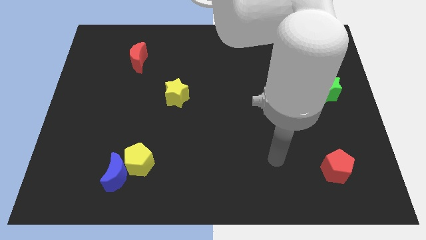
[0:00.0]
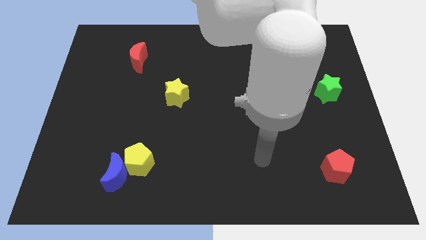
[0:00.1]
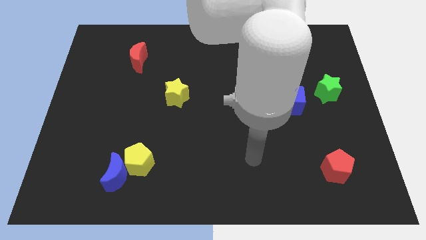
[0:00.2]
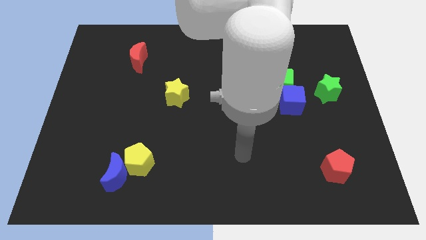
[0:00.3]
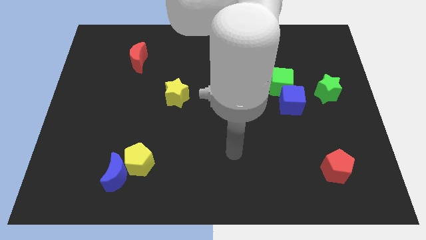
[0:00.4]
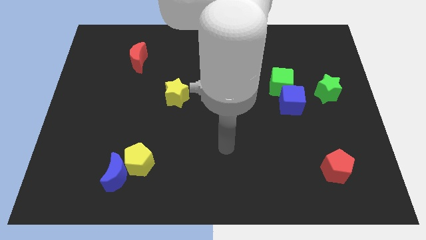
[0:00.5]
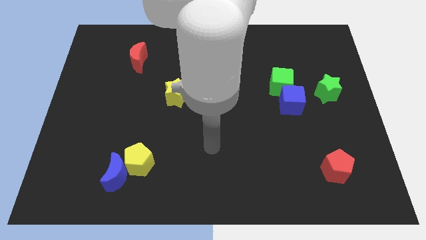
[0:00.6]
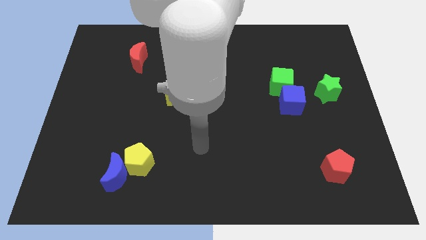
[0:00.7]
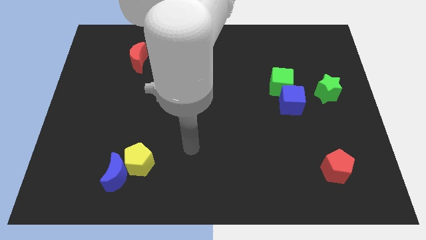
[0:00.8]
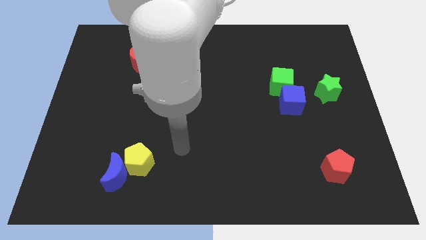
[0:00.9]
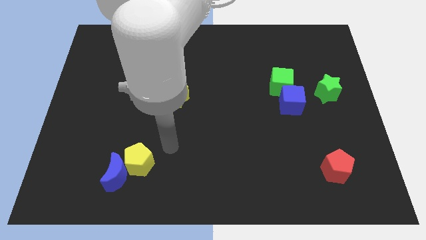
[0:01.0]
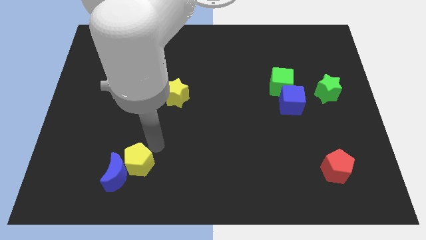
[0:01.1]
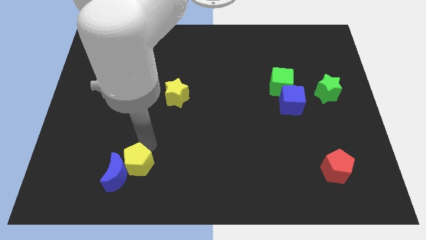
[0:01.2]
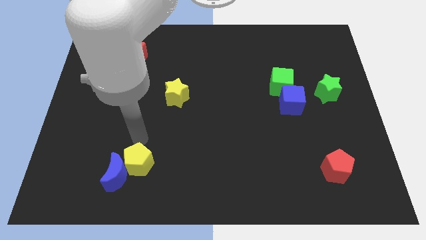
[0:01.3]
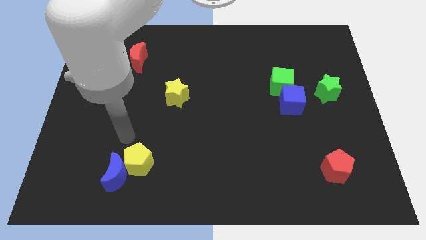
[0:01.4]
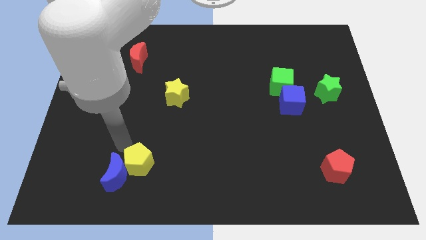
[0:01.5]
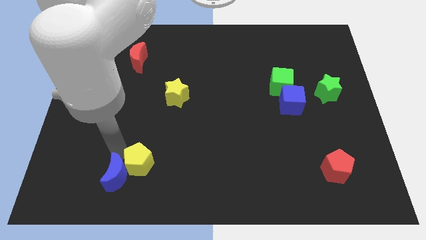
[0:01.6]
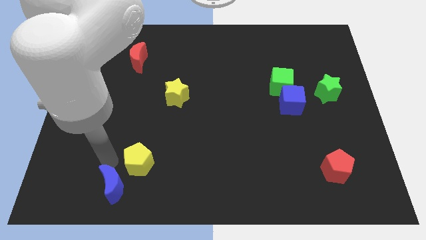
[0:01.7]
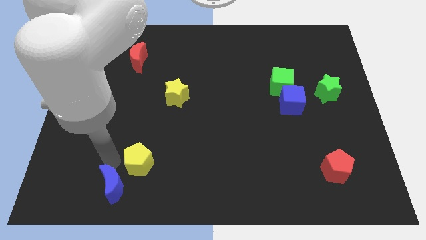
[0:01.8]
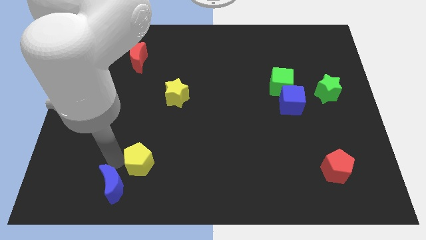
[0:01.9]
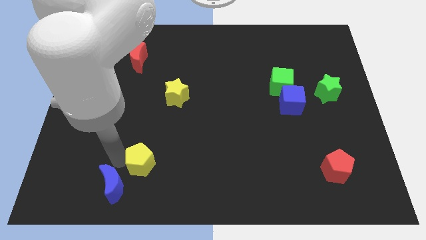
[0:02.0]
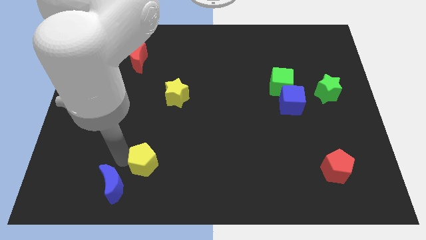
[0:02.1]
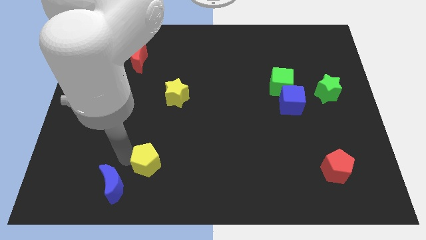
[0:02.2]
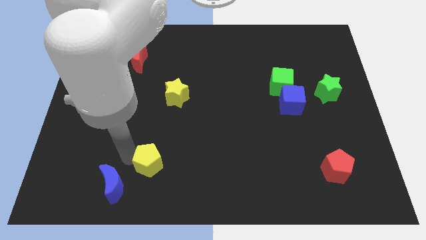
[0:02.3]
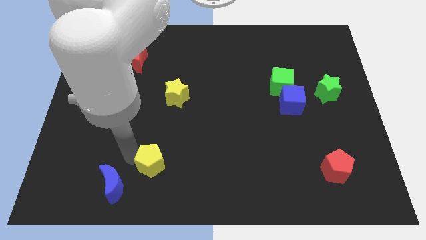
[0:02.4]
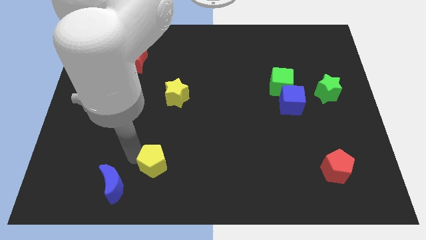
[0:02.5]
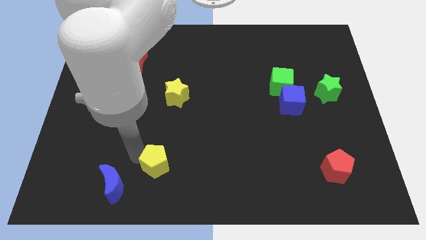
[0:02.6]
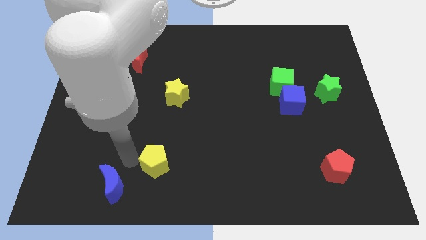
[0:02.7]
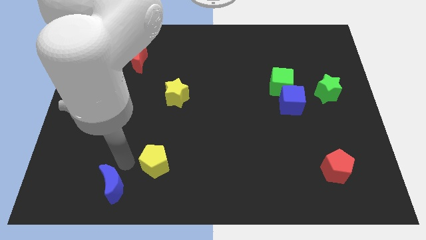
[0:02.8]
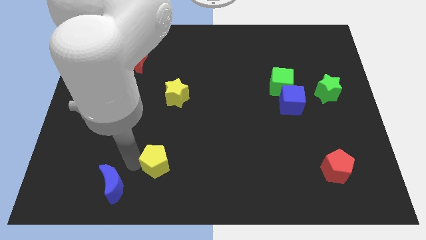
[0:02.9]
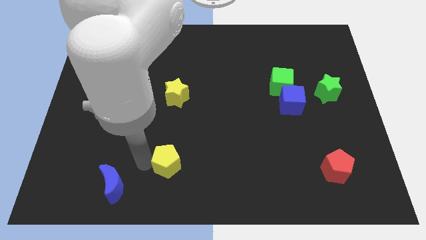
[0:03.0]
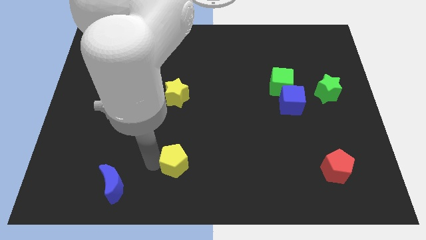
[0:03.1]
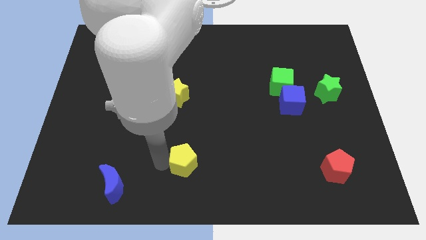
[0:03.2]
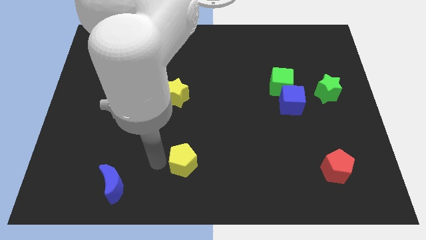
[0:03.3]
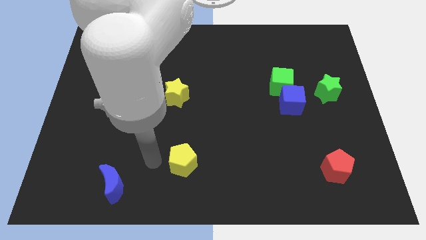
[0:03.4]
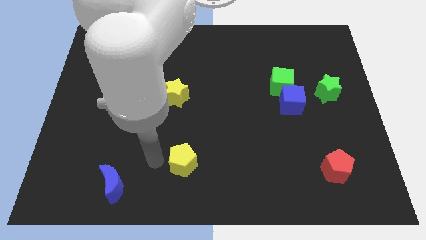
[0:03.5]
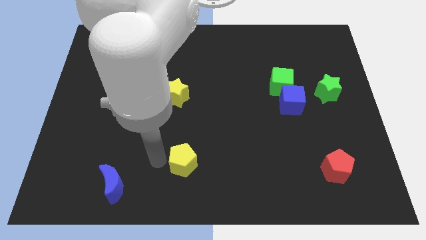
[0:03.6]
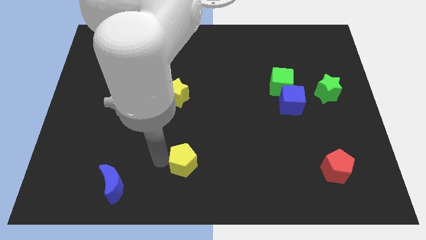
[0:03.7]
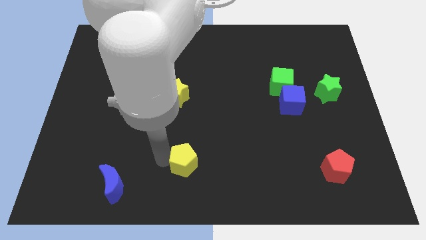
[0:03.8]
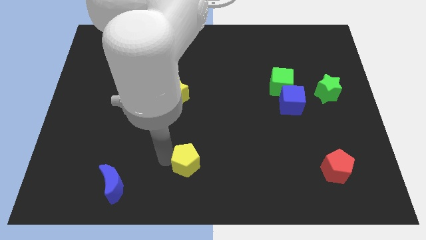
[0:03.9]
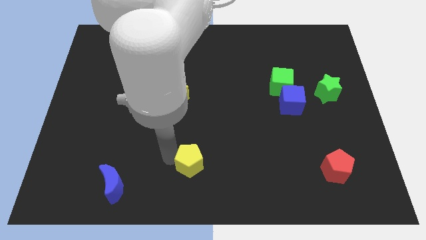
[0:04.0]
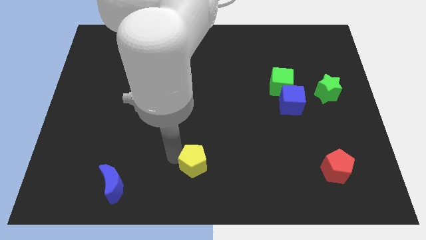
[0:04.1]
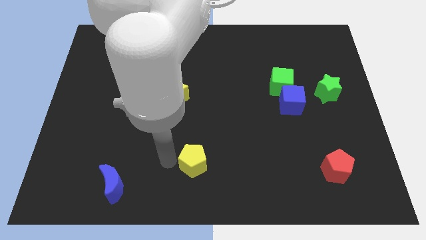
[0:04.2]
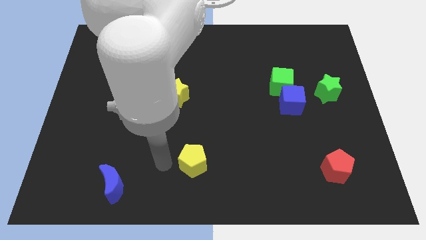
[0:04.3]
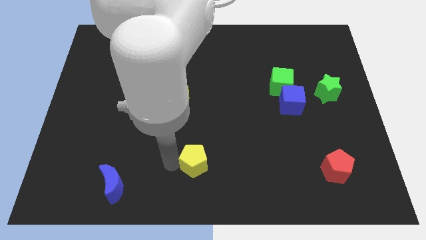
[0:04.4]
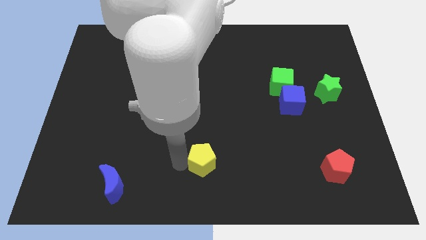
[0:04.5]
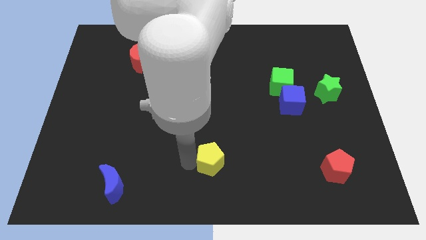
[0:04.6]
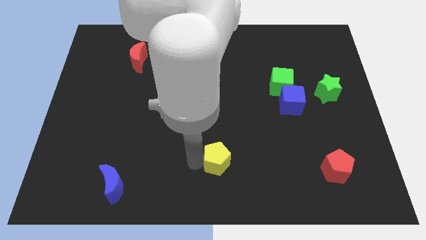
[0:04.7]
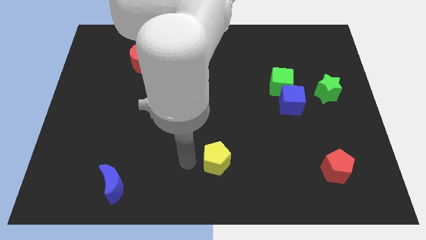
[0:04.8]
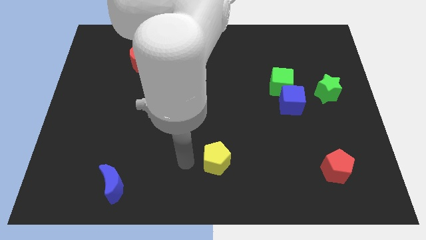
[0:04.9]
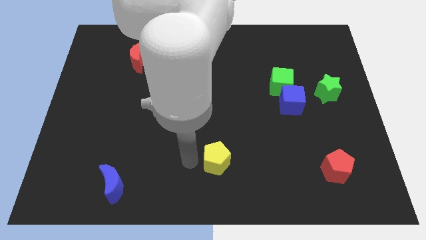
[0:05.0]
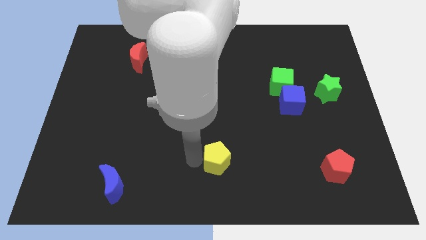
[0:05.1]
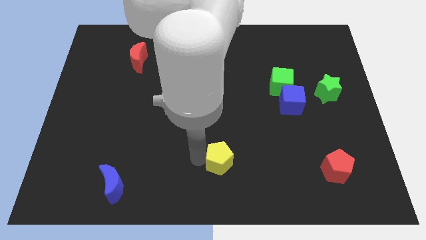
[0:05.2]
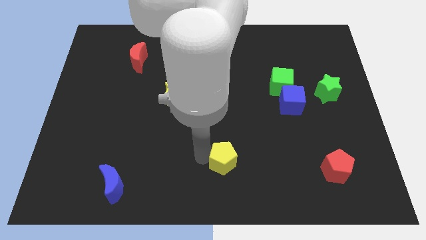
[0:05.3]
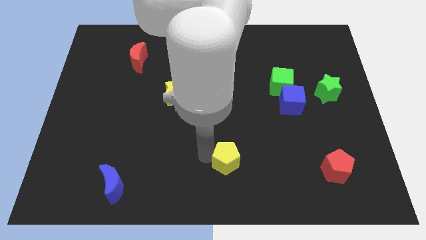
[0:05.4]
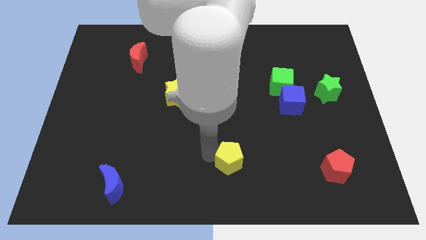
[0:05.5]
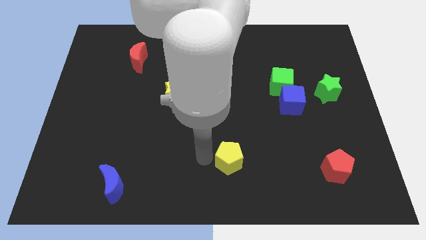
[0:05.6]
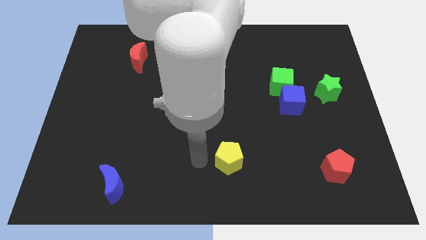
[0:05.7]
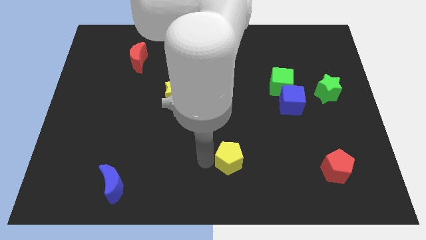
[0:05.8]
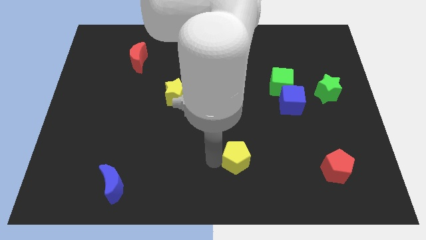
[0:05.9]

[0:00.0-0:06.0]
slide the yellow pentagon to the right

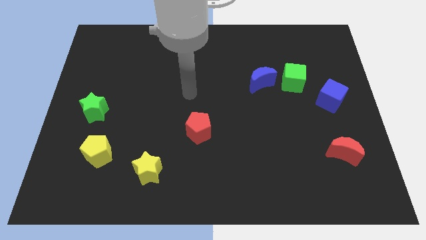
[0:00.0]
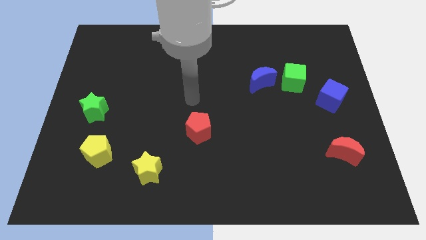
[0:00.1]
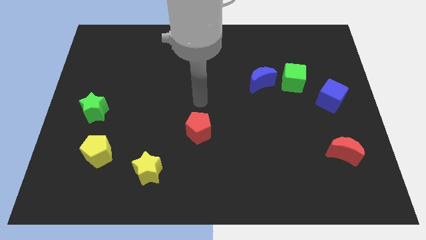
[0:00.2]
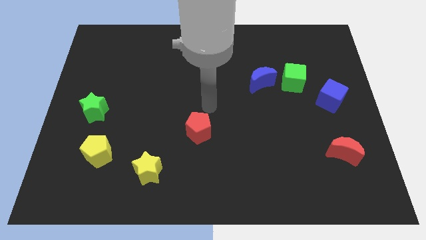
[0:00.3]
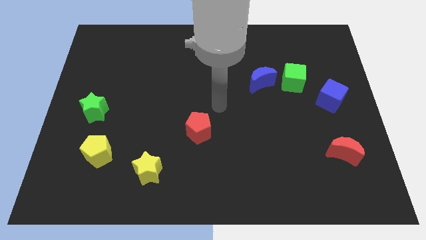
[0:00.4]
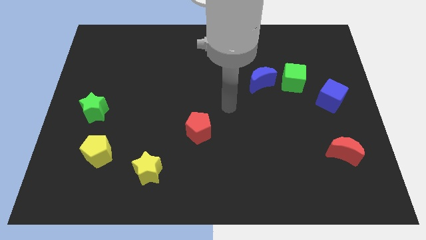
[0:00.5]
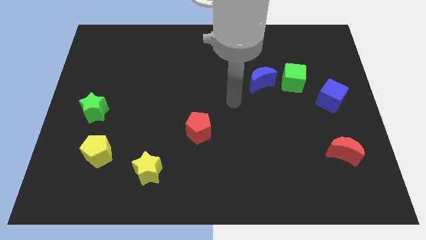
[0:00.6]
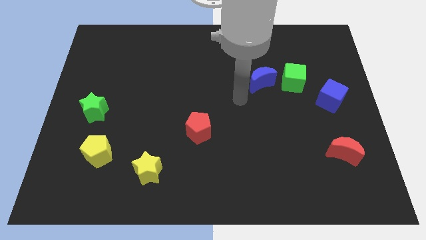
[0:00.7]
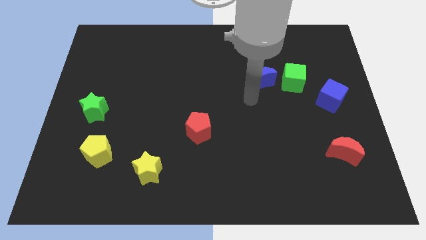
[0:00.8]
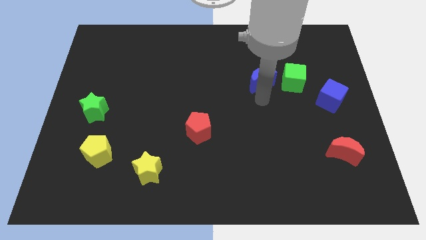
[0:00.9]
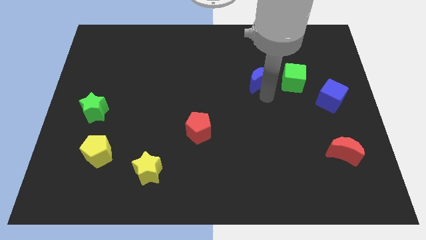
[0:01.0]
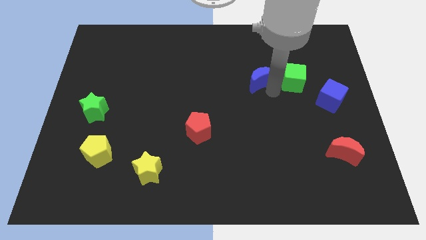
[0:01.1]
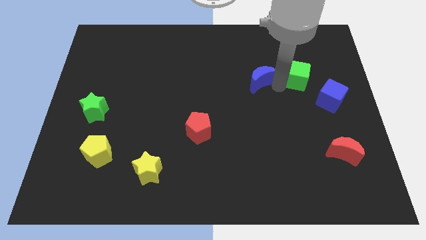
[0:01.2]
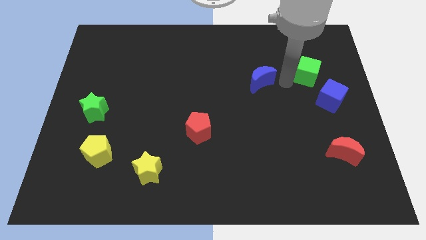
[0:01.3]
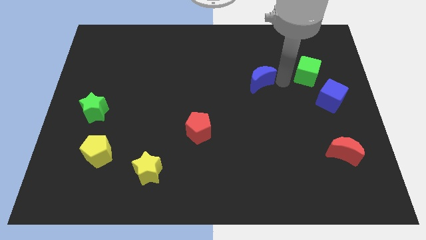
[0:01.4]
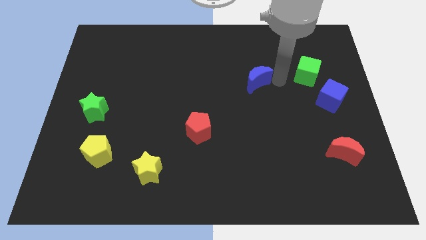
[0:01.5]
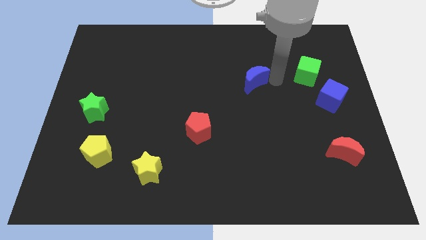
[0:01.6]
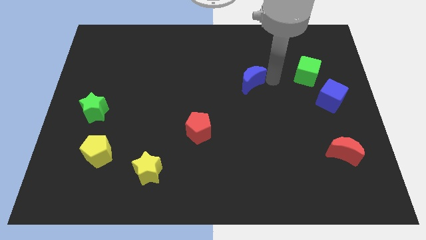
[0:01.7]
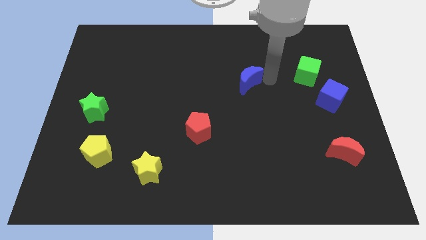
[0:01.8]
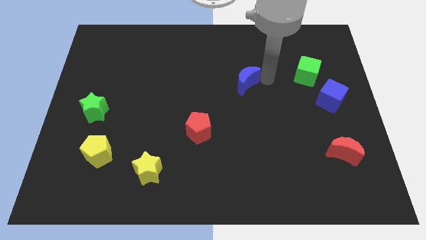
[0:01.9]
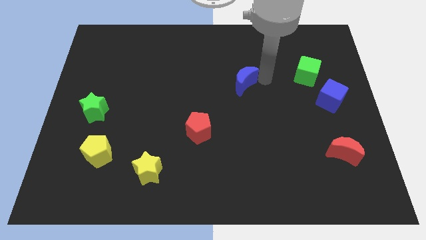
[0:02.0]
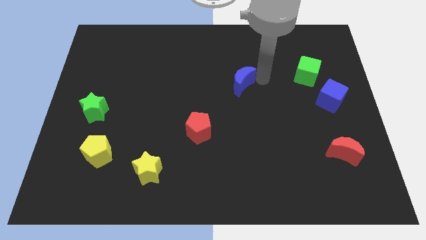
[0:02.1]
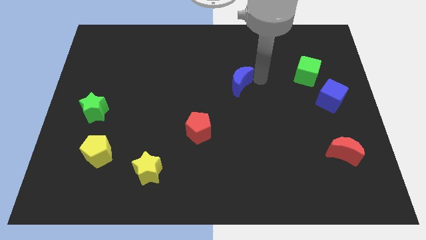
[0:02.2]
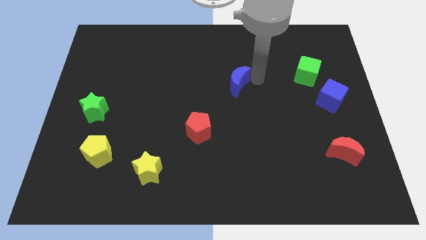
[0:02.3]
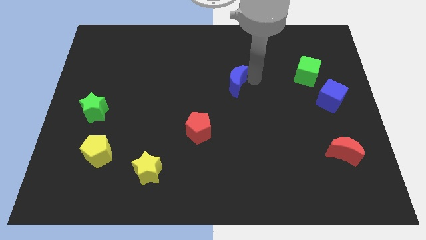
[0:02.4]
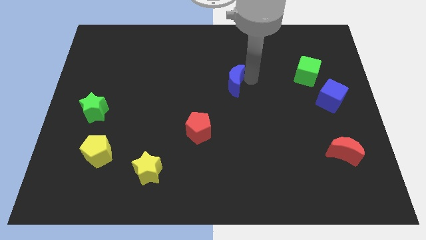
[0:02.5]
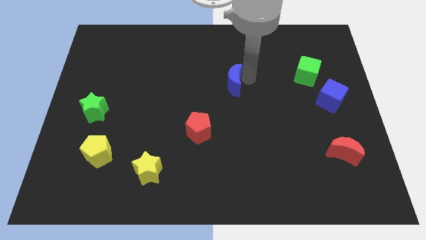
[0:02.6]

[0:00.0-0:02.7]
move the blue moon left somewhat
